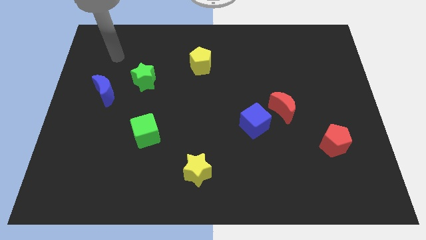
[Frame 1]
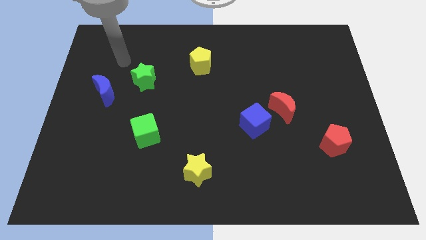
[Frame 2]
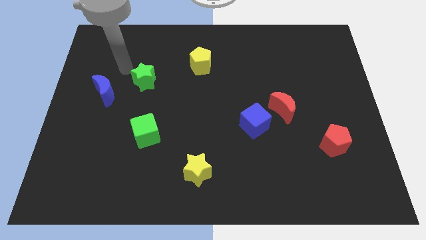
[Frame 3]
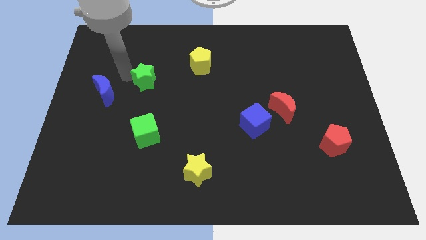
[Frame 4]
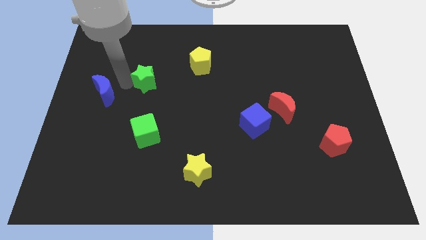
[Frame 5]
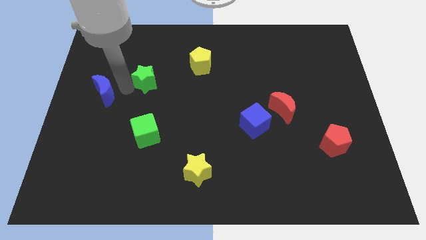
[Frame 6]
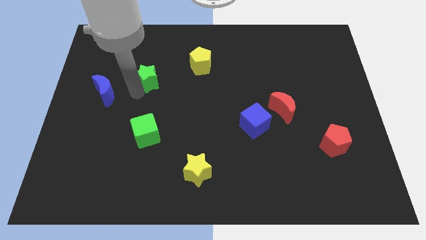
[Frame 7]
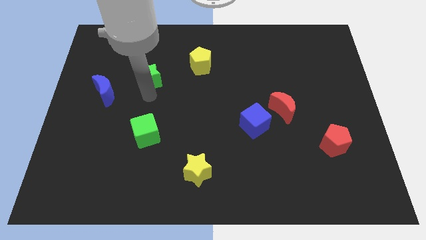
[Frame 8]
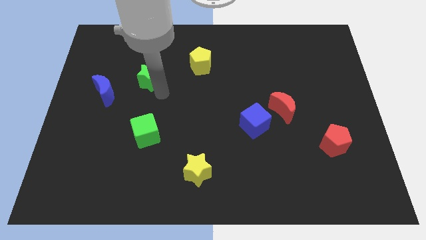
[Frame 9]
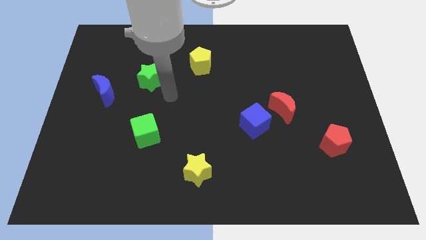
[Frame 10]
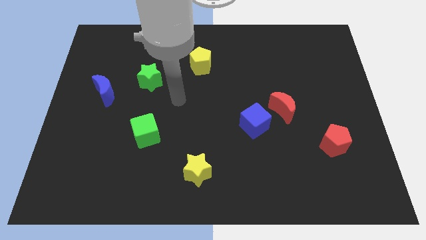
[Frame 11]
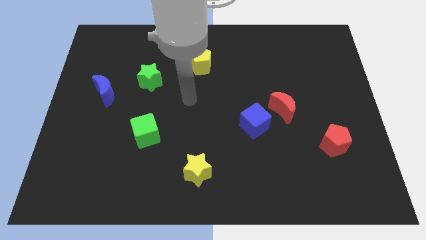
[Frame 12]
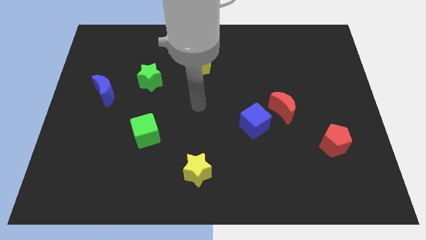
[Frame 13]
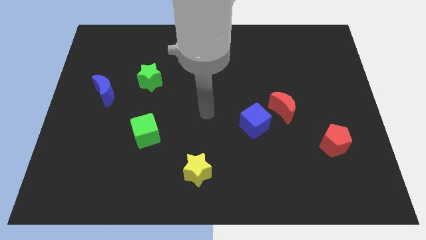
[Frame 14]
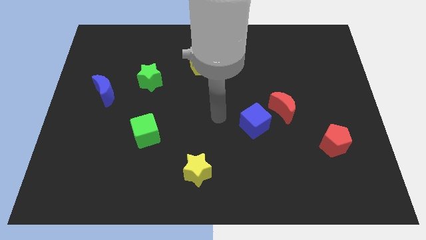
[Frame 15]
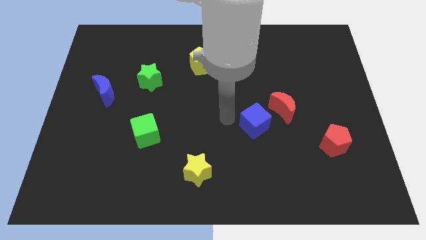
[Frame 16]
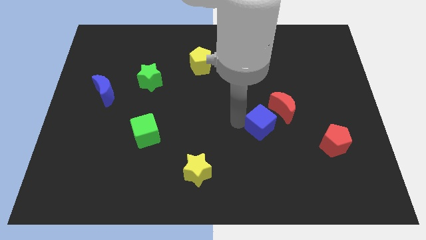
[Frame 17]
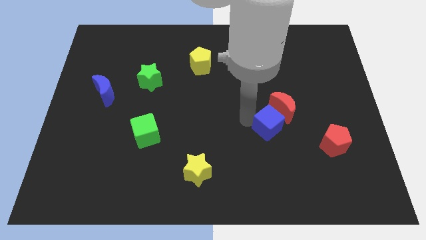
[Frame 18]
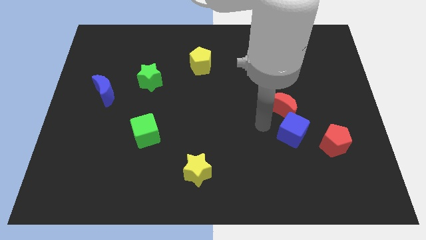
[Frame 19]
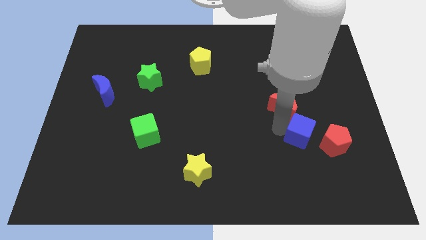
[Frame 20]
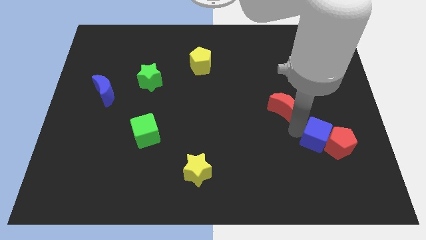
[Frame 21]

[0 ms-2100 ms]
separate the red moon from the blue cube

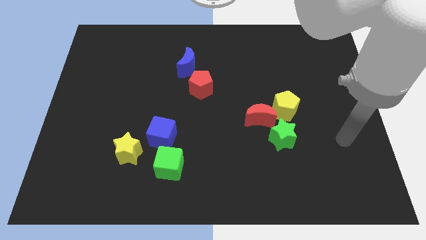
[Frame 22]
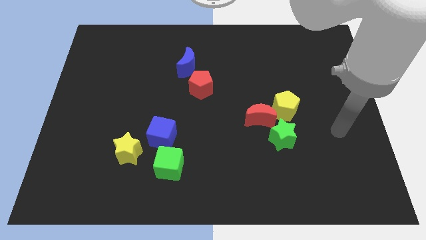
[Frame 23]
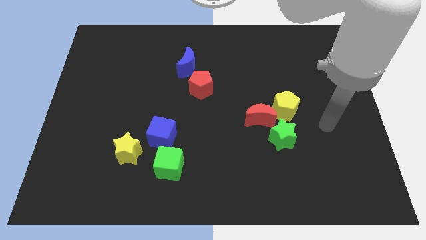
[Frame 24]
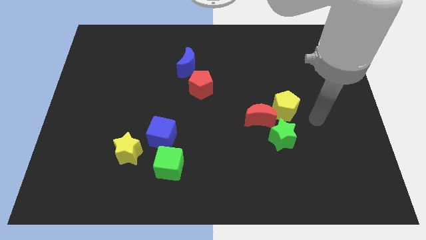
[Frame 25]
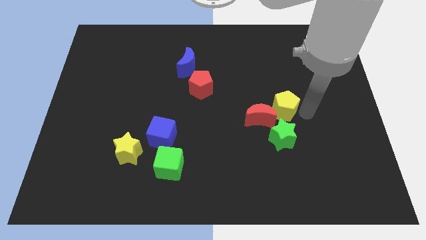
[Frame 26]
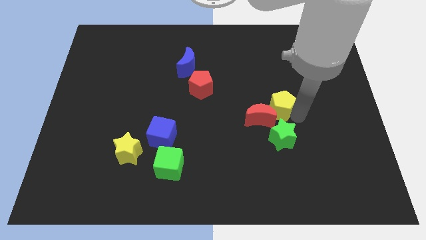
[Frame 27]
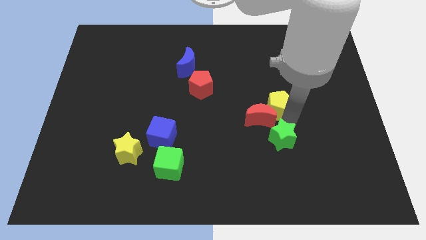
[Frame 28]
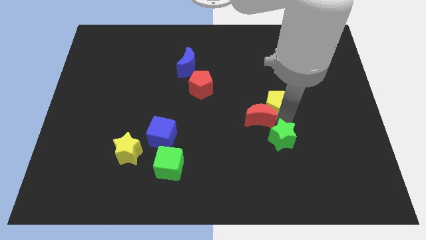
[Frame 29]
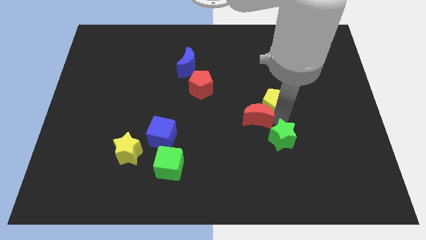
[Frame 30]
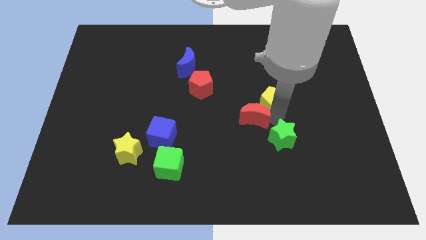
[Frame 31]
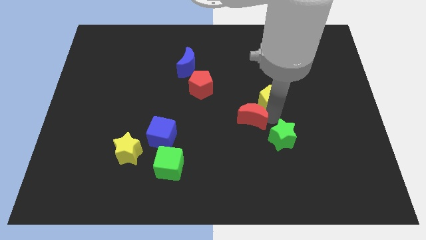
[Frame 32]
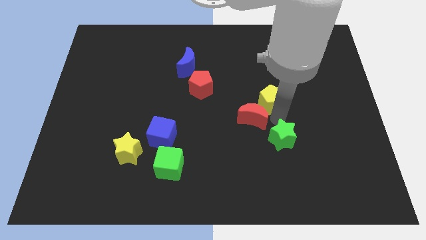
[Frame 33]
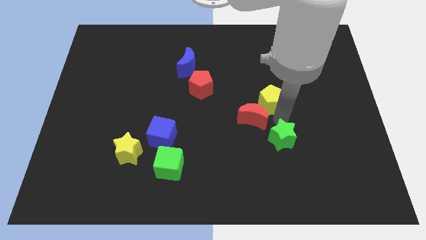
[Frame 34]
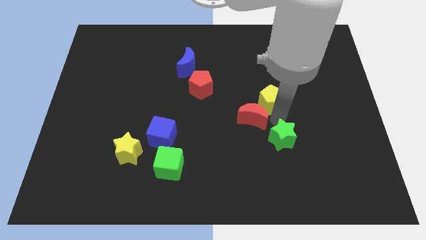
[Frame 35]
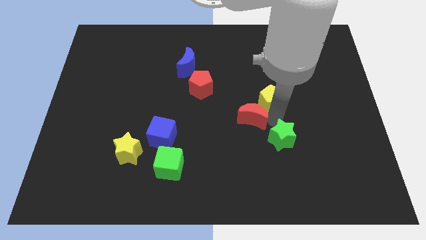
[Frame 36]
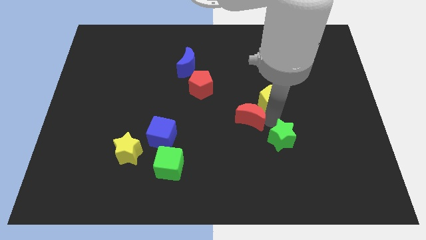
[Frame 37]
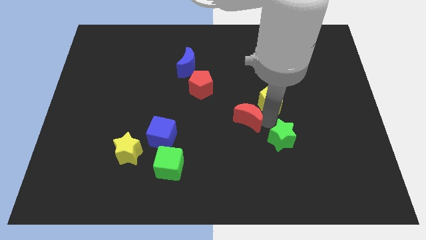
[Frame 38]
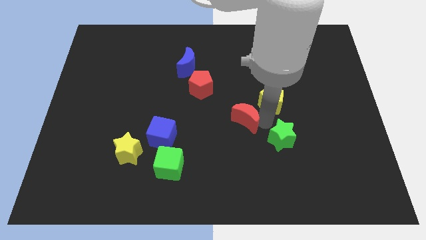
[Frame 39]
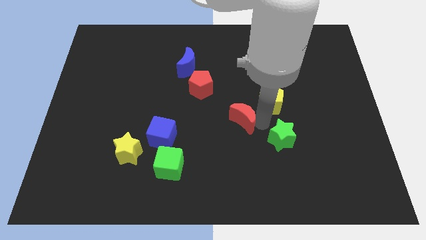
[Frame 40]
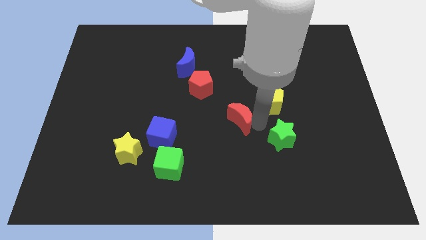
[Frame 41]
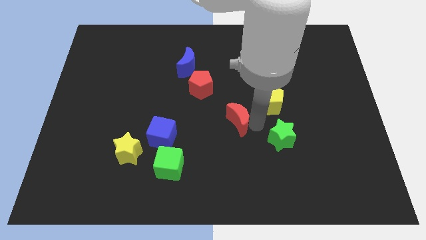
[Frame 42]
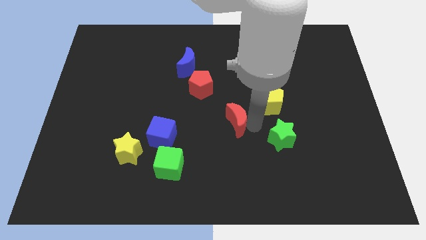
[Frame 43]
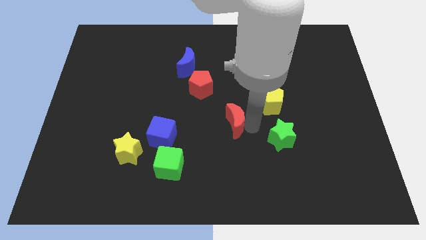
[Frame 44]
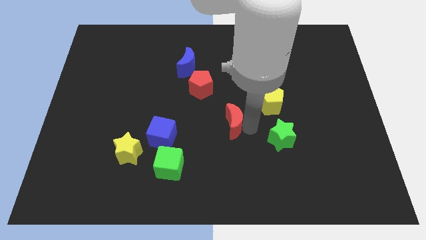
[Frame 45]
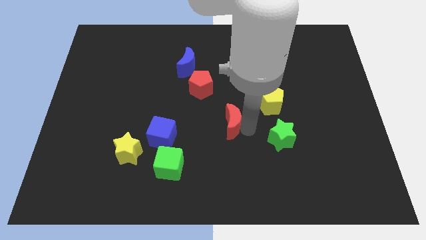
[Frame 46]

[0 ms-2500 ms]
pull the red moon apart from the yellow pentagon and green star

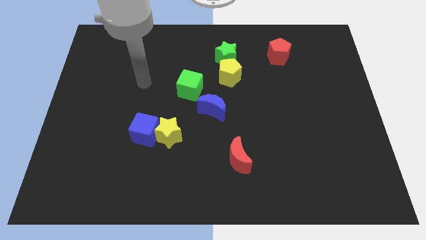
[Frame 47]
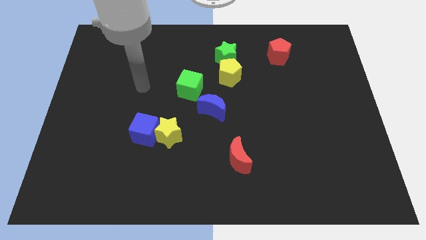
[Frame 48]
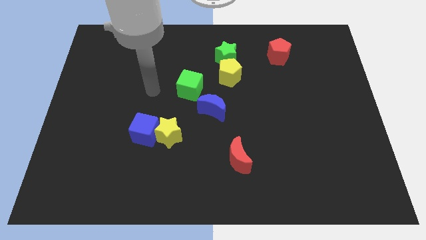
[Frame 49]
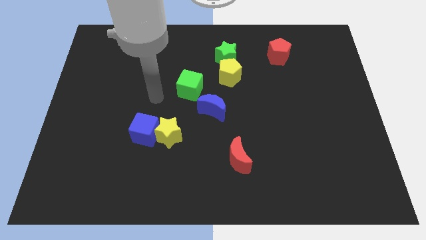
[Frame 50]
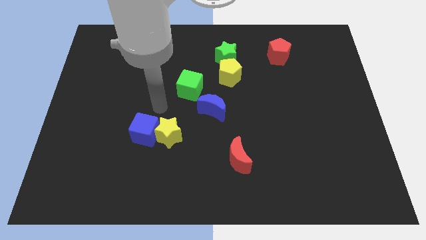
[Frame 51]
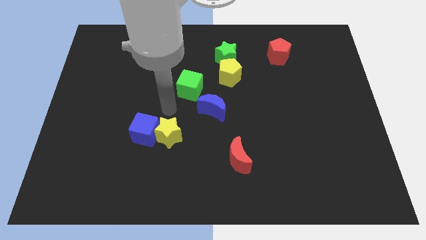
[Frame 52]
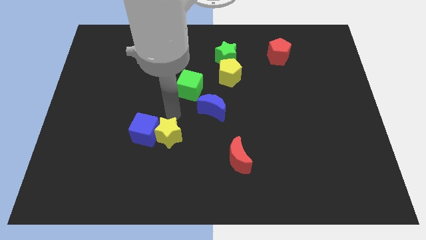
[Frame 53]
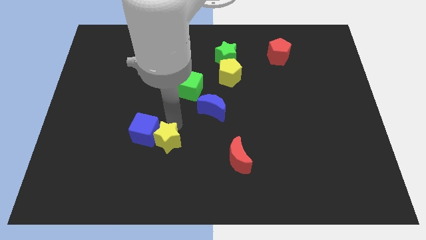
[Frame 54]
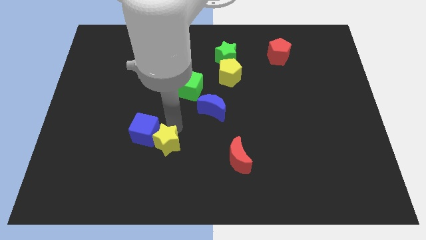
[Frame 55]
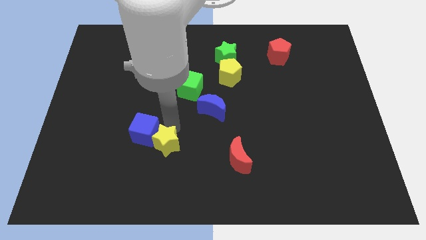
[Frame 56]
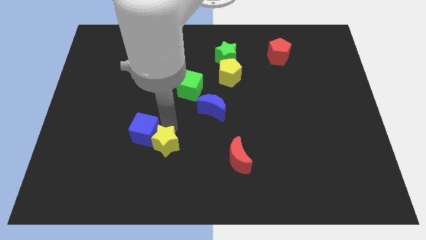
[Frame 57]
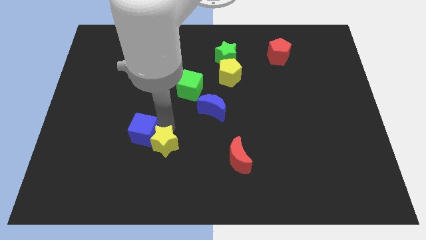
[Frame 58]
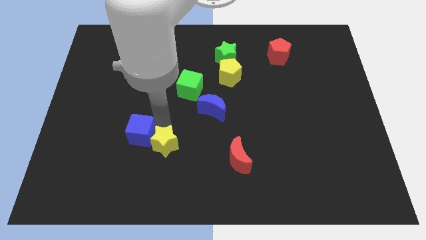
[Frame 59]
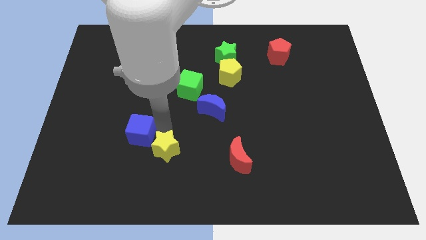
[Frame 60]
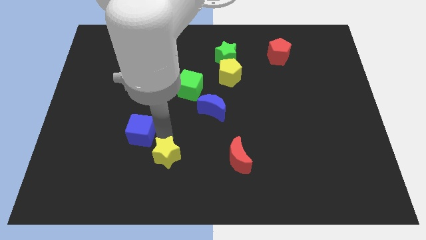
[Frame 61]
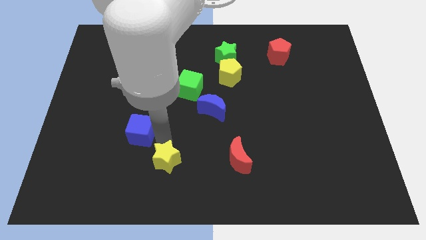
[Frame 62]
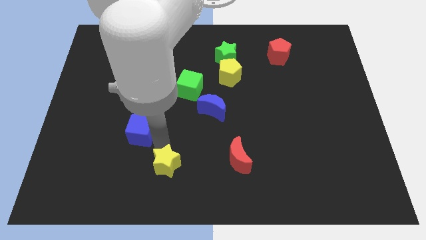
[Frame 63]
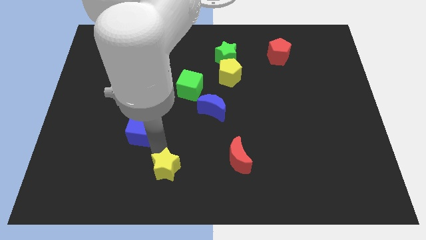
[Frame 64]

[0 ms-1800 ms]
pull the blue cube apart from the yellow star

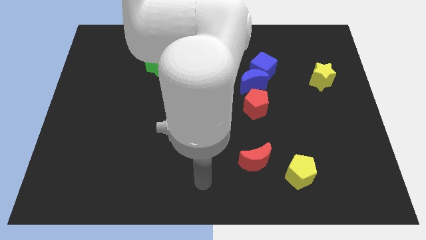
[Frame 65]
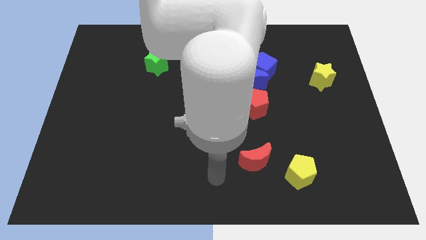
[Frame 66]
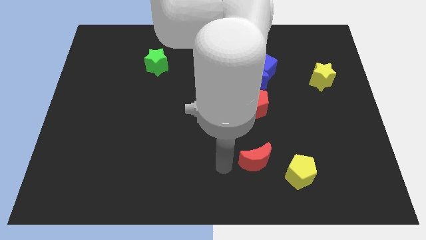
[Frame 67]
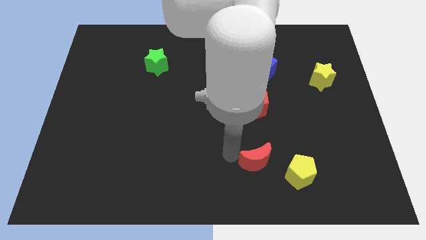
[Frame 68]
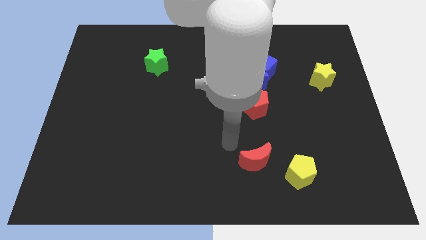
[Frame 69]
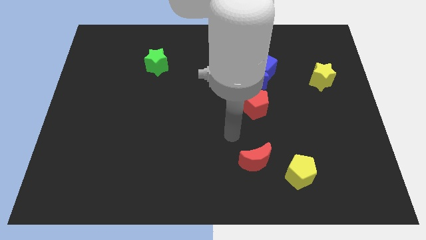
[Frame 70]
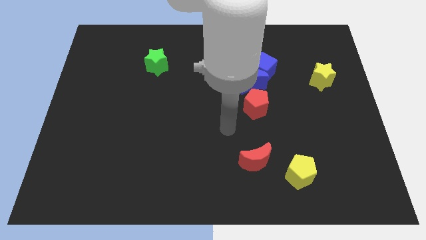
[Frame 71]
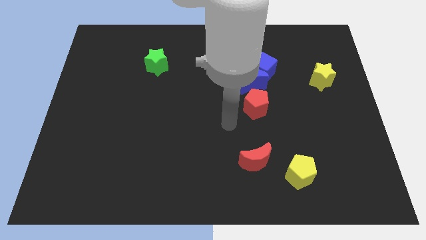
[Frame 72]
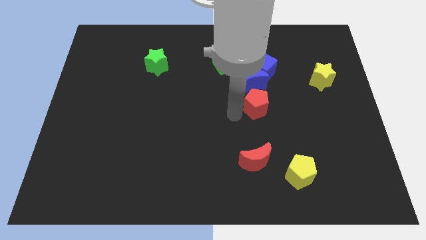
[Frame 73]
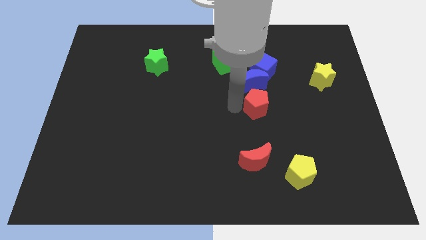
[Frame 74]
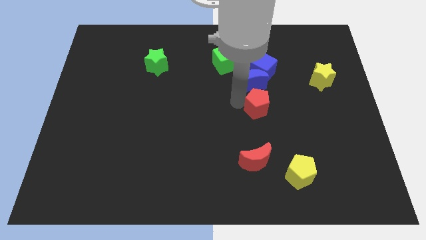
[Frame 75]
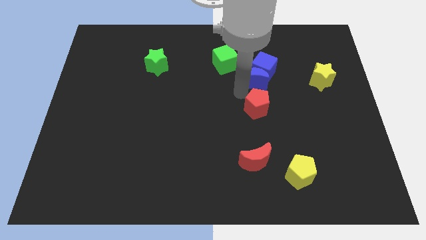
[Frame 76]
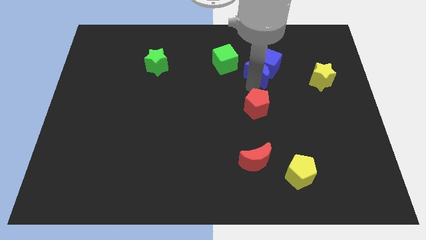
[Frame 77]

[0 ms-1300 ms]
move the red pentagon away from the blue moon

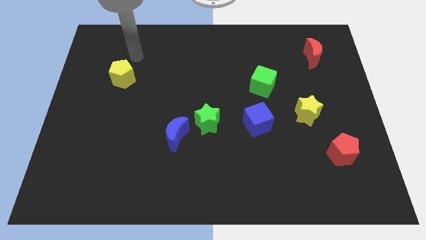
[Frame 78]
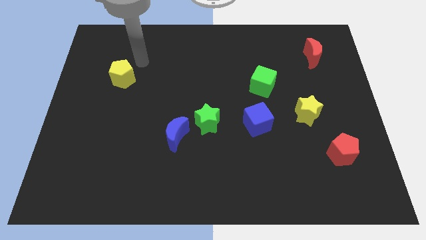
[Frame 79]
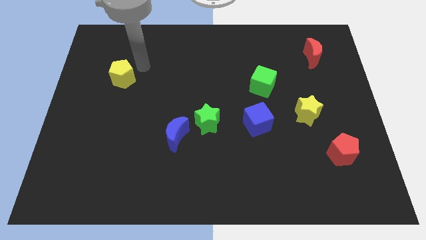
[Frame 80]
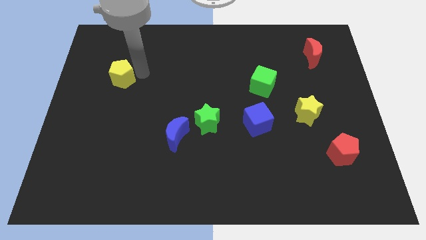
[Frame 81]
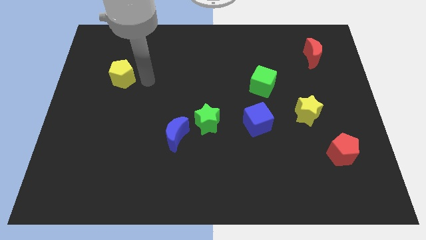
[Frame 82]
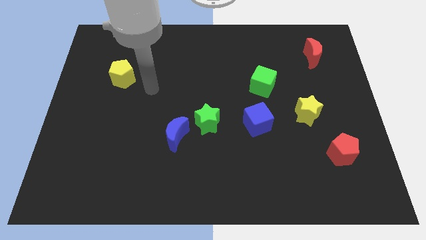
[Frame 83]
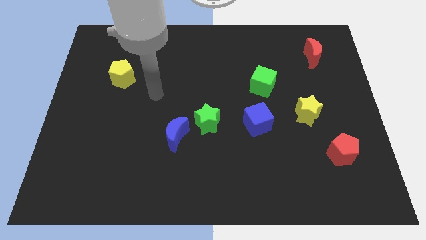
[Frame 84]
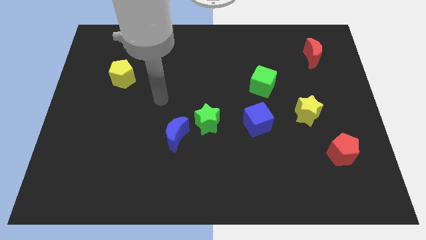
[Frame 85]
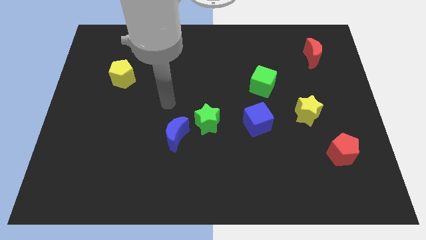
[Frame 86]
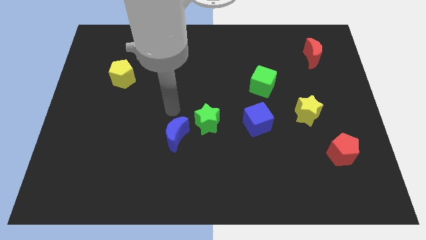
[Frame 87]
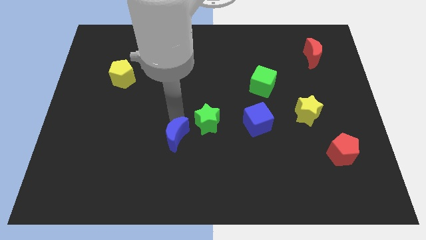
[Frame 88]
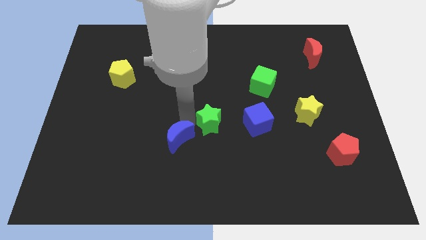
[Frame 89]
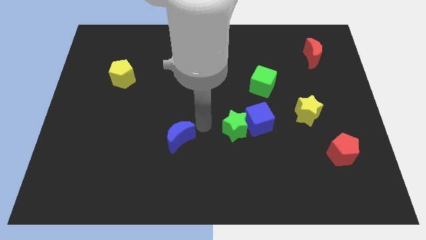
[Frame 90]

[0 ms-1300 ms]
move the blue moon away from the green star
